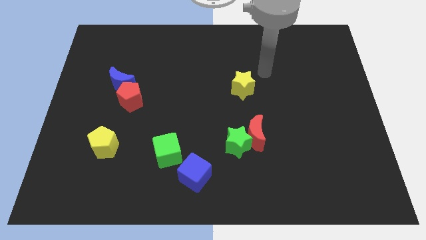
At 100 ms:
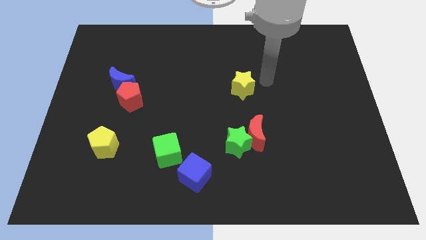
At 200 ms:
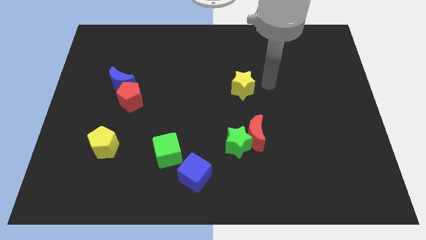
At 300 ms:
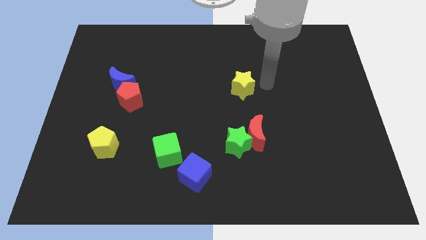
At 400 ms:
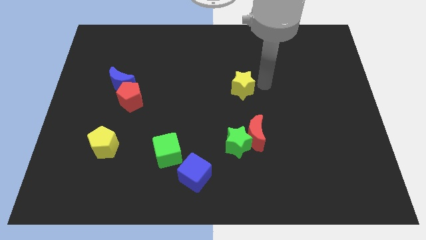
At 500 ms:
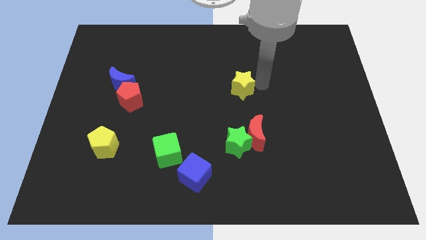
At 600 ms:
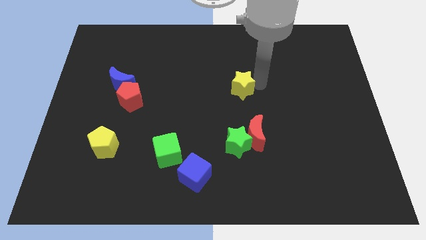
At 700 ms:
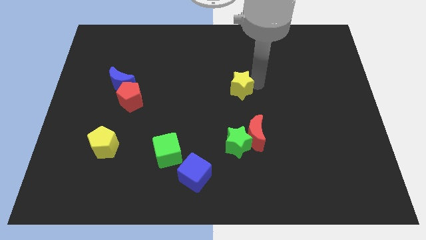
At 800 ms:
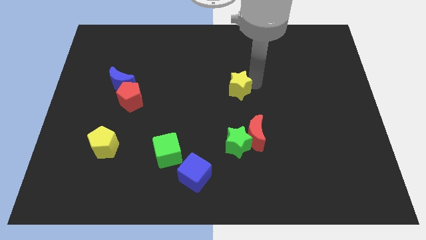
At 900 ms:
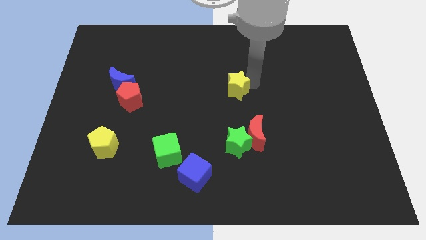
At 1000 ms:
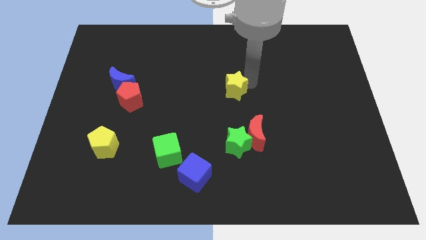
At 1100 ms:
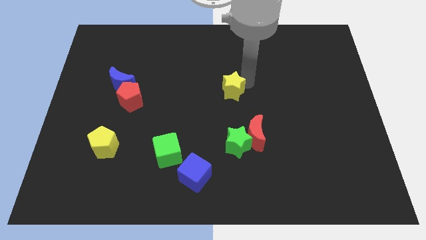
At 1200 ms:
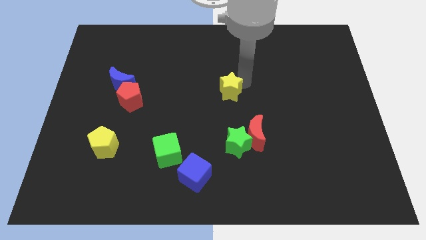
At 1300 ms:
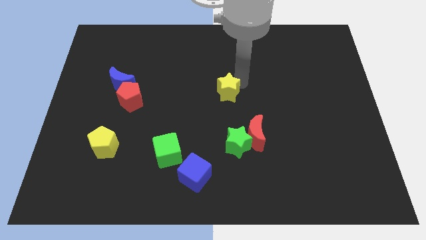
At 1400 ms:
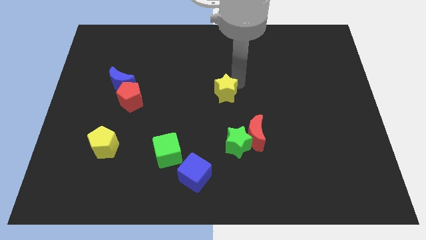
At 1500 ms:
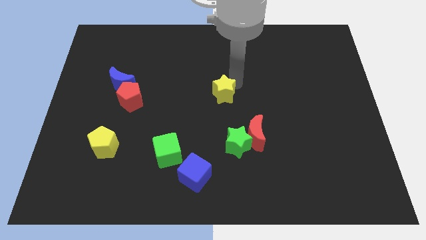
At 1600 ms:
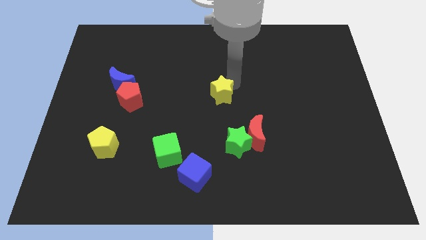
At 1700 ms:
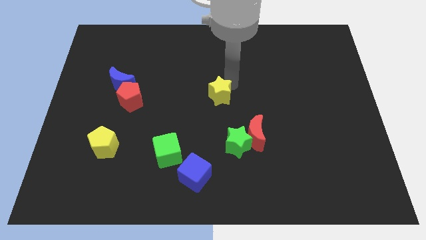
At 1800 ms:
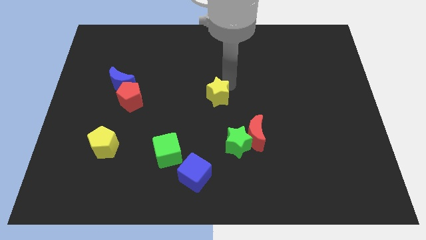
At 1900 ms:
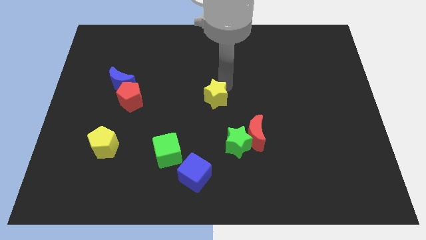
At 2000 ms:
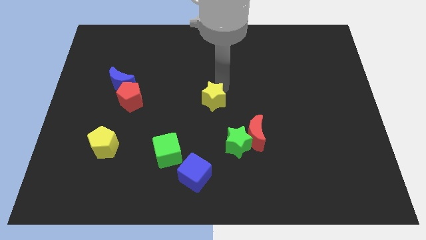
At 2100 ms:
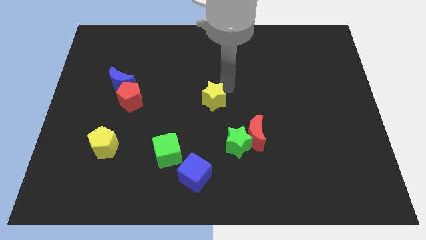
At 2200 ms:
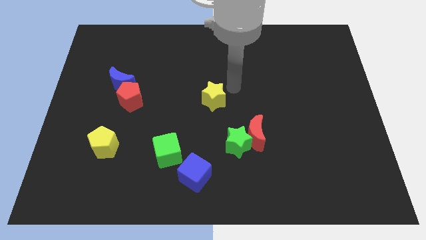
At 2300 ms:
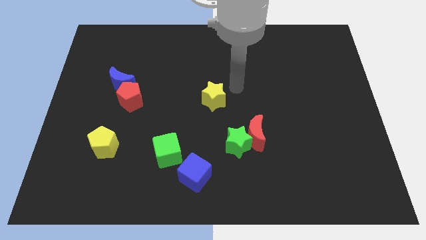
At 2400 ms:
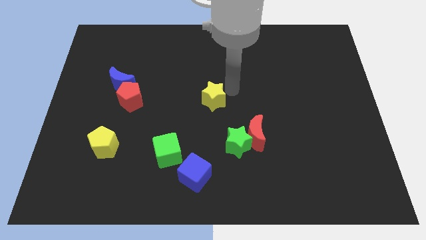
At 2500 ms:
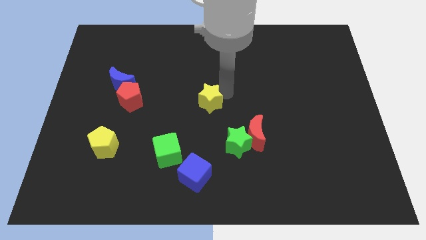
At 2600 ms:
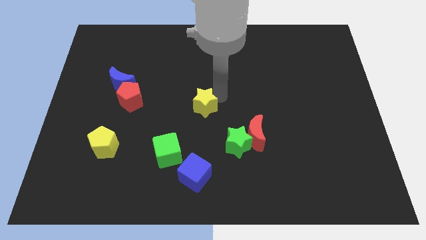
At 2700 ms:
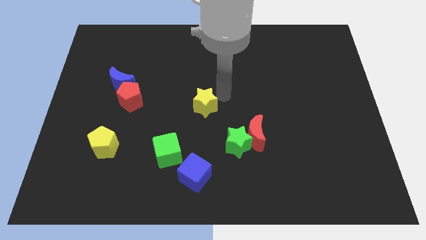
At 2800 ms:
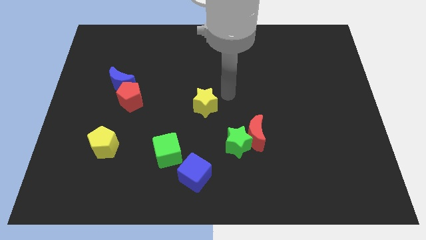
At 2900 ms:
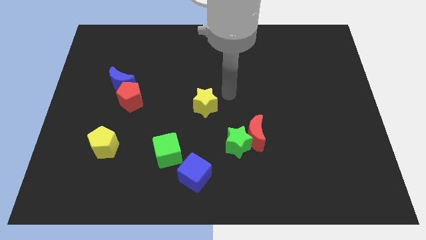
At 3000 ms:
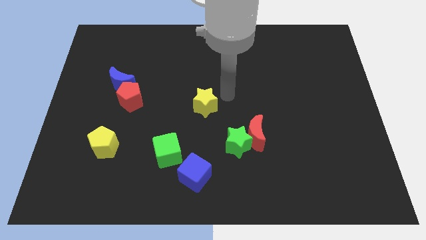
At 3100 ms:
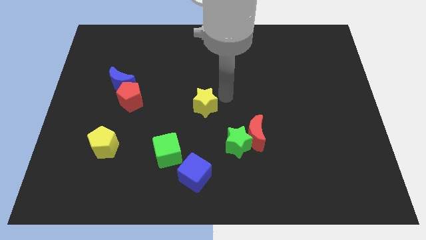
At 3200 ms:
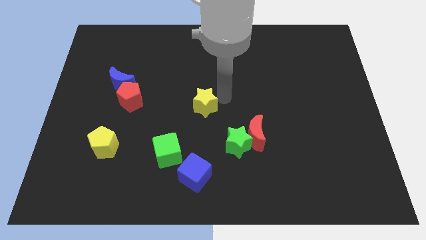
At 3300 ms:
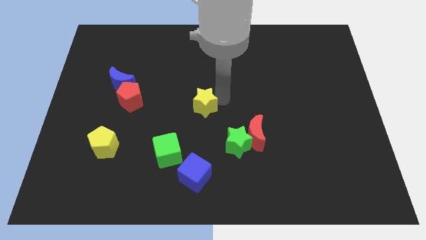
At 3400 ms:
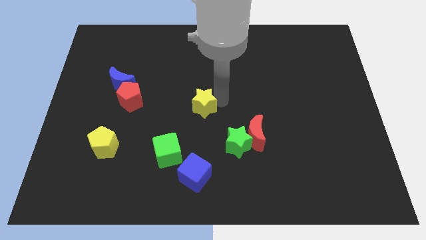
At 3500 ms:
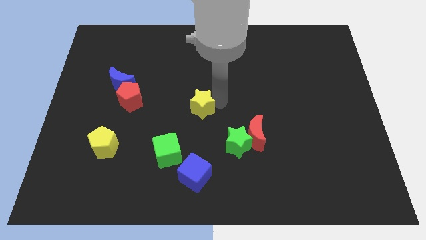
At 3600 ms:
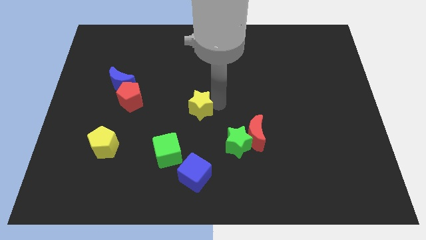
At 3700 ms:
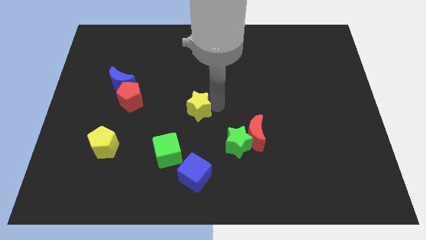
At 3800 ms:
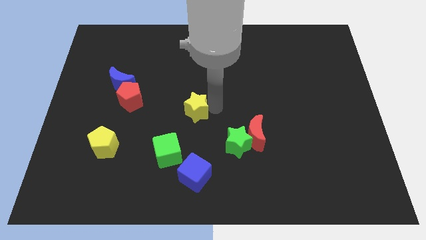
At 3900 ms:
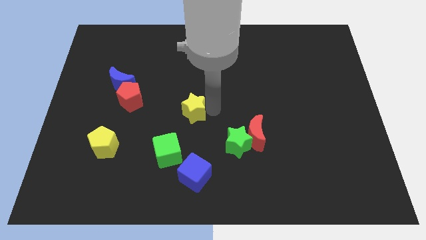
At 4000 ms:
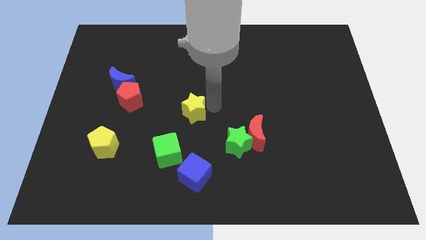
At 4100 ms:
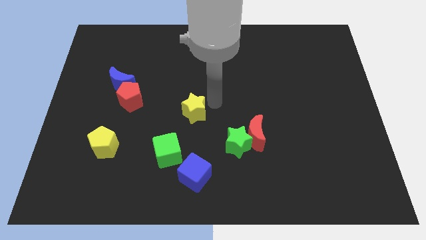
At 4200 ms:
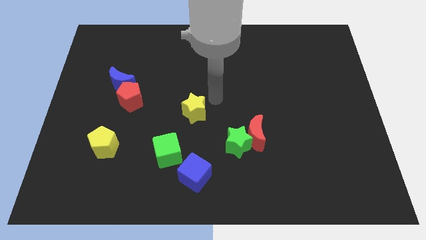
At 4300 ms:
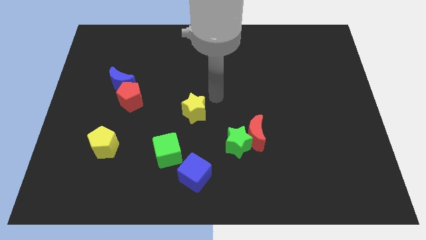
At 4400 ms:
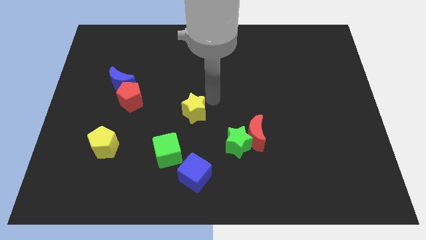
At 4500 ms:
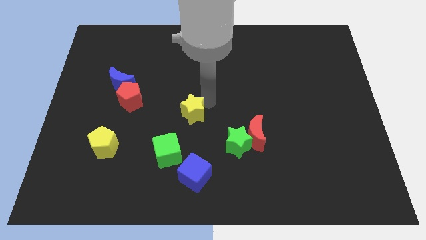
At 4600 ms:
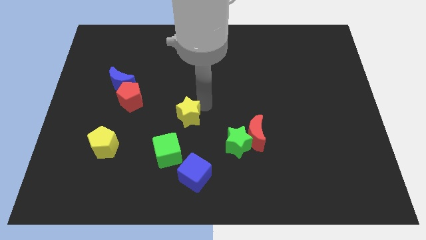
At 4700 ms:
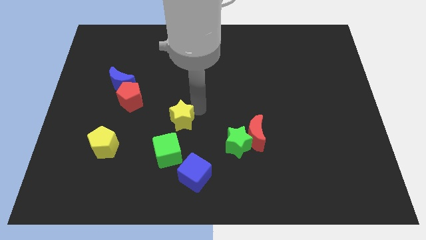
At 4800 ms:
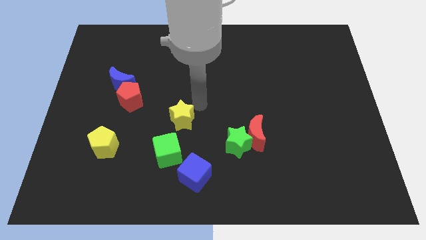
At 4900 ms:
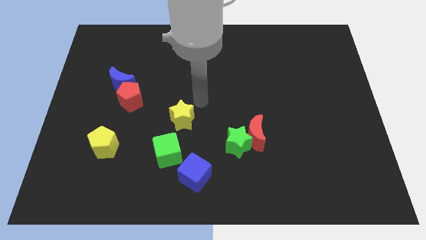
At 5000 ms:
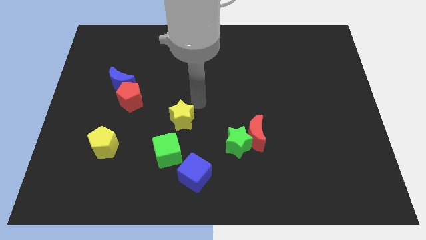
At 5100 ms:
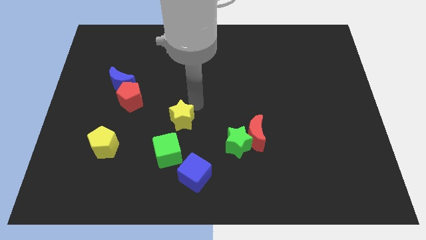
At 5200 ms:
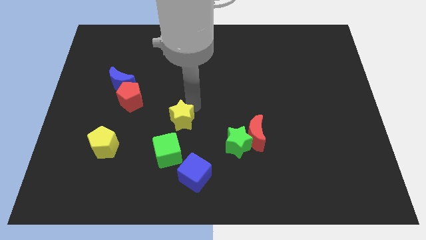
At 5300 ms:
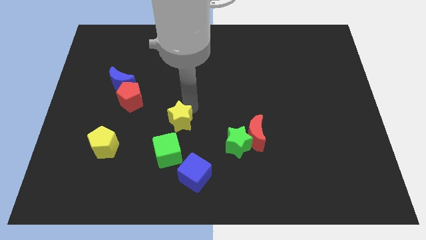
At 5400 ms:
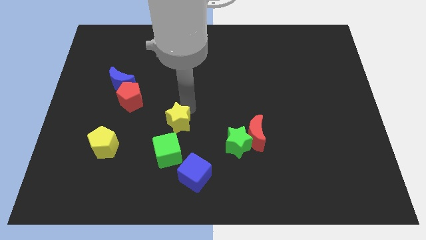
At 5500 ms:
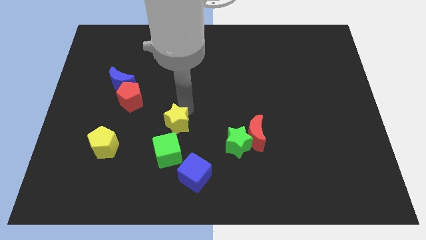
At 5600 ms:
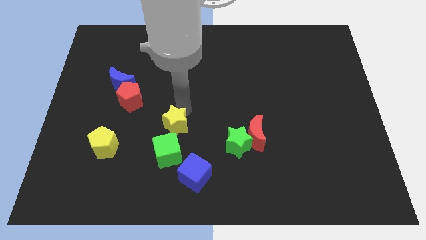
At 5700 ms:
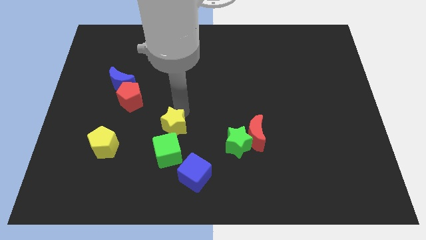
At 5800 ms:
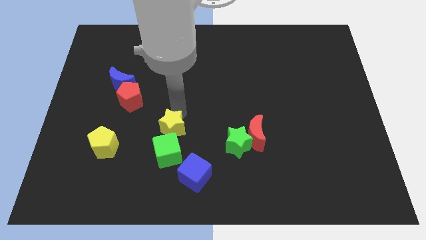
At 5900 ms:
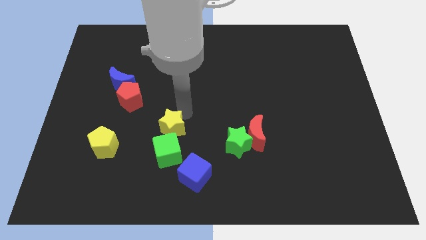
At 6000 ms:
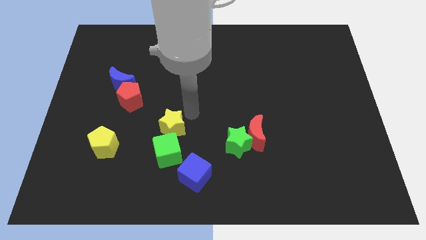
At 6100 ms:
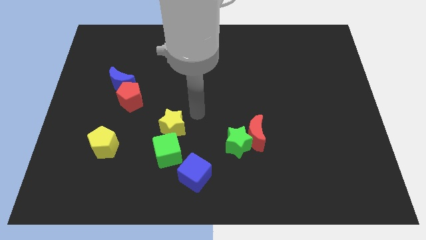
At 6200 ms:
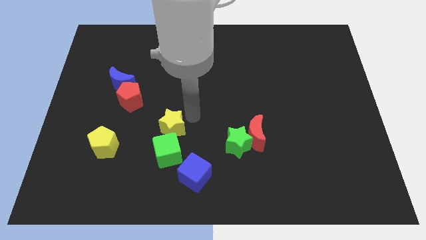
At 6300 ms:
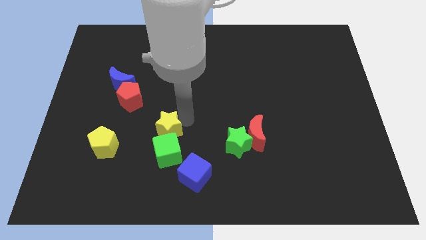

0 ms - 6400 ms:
slide the yellow star down and to the left

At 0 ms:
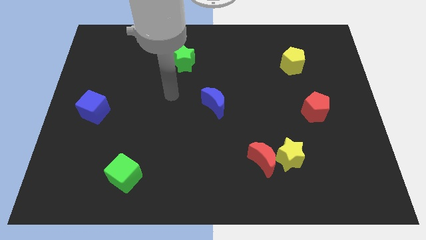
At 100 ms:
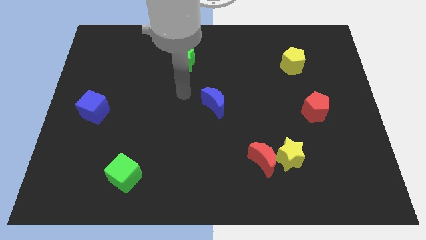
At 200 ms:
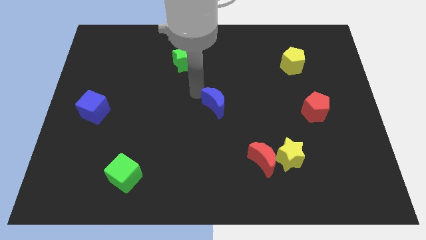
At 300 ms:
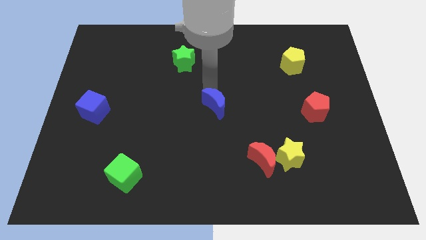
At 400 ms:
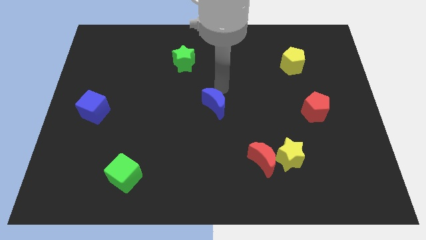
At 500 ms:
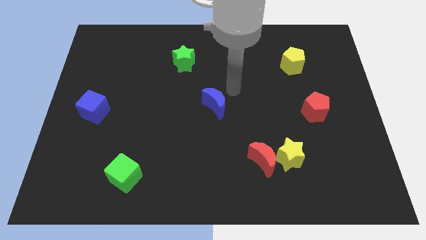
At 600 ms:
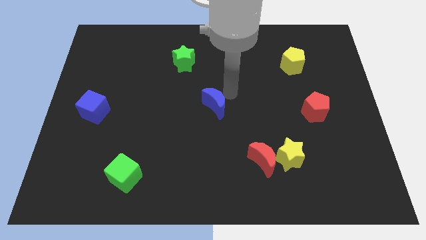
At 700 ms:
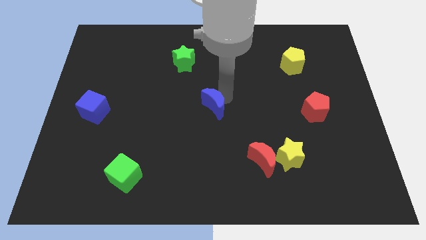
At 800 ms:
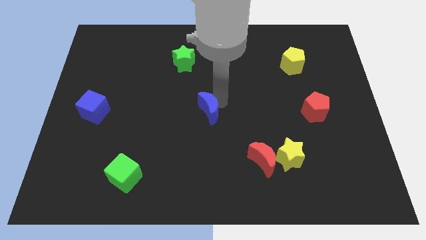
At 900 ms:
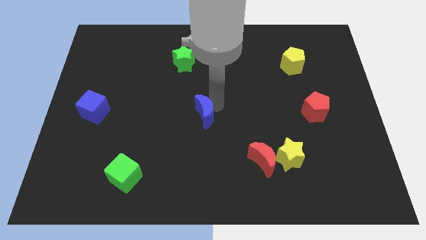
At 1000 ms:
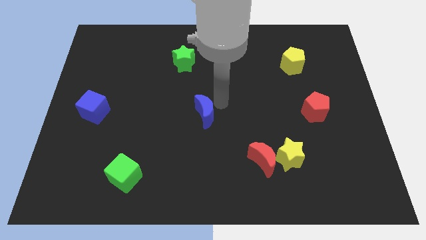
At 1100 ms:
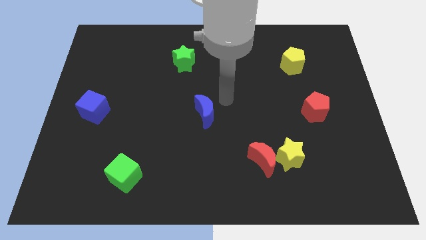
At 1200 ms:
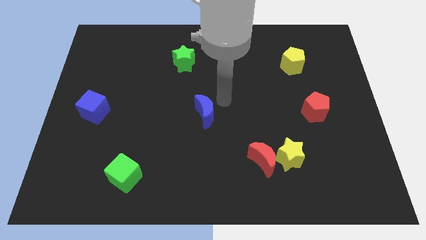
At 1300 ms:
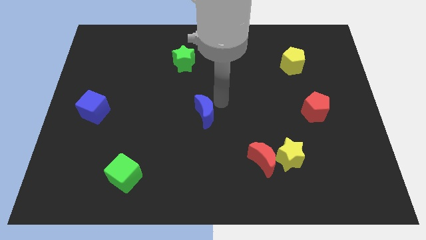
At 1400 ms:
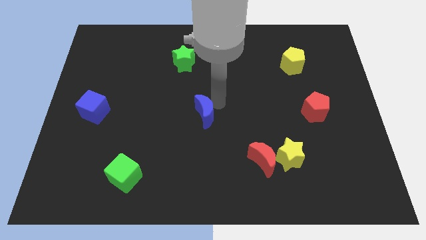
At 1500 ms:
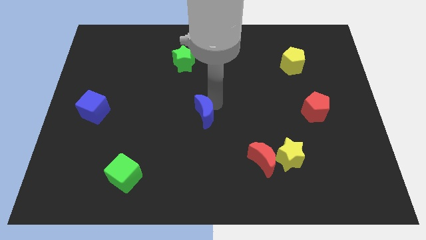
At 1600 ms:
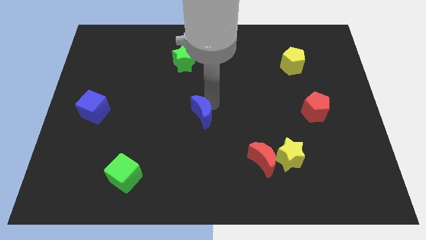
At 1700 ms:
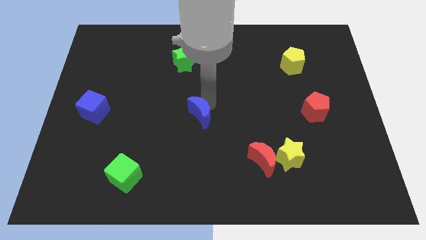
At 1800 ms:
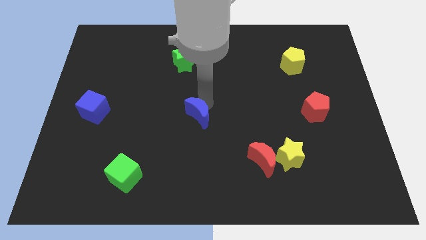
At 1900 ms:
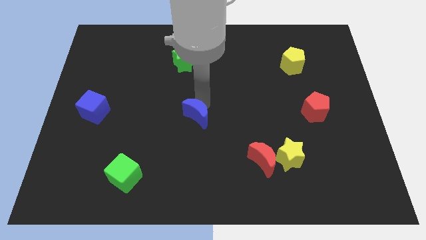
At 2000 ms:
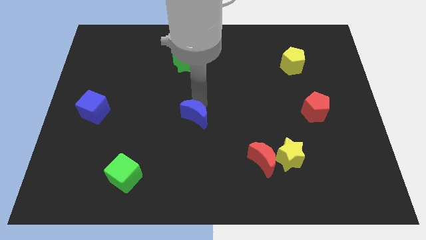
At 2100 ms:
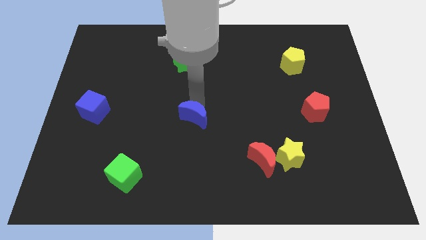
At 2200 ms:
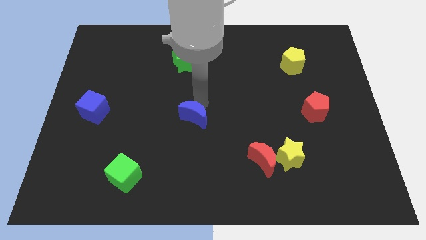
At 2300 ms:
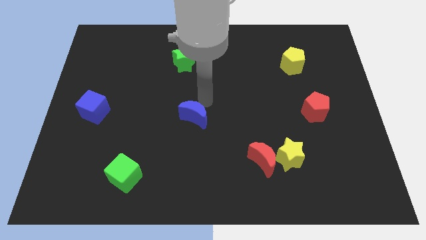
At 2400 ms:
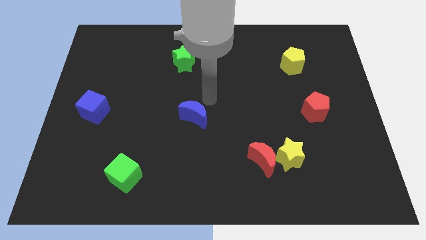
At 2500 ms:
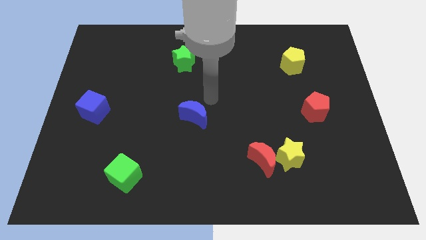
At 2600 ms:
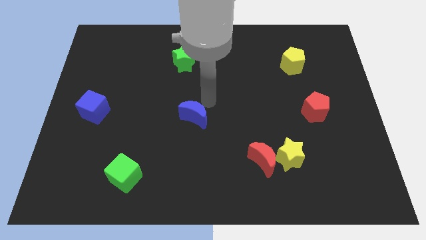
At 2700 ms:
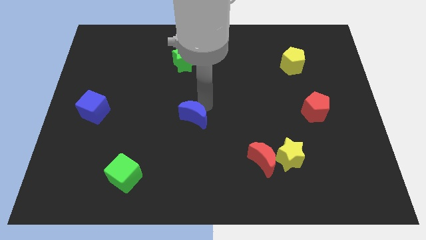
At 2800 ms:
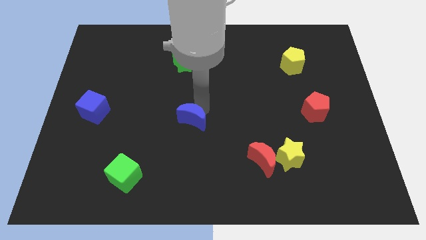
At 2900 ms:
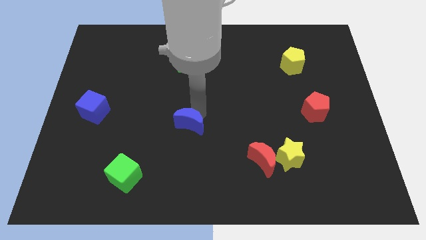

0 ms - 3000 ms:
move the blue moon a little bit diagonally downwards and left
